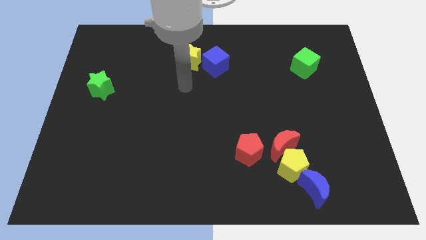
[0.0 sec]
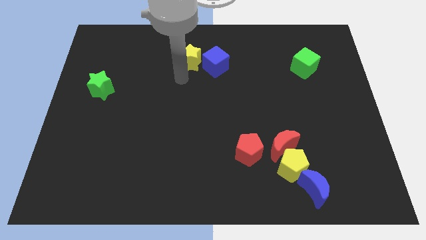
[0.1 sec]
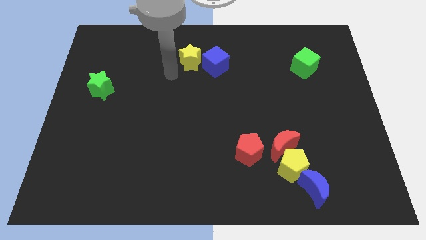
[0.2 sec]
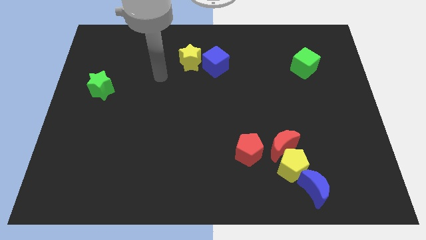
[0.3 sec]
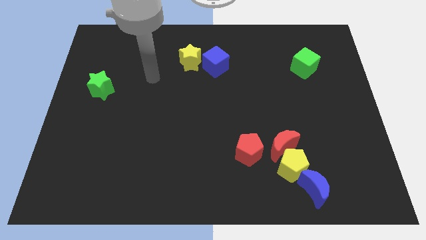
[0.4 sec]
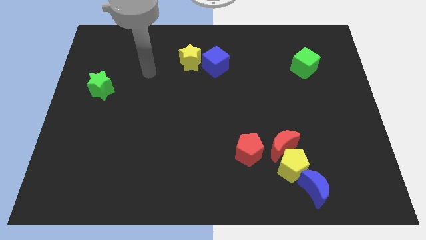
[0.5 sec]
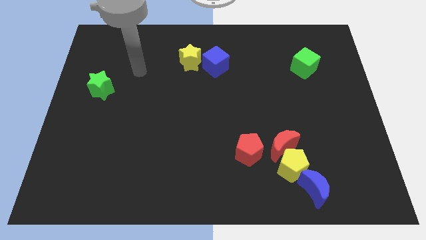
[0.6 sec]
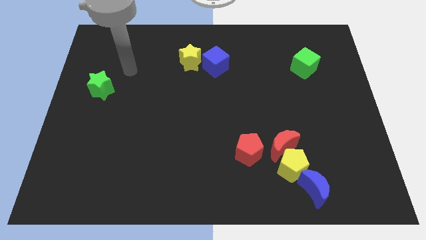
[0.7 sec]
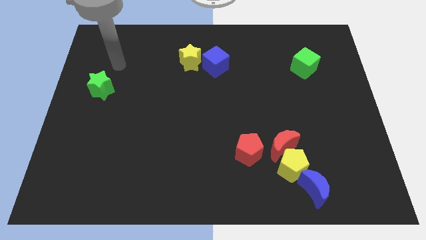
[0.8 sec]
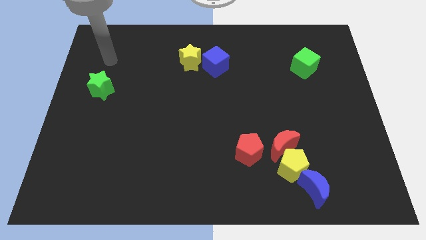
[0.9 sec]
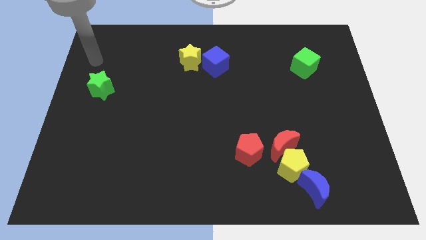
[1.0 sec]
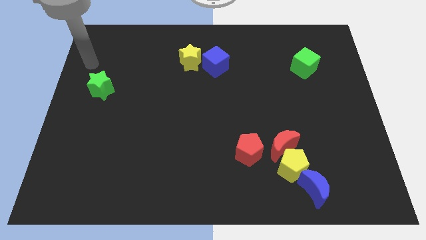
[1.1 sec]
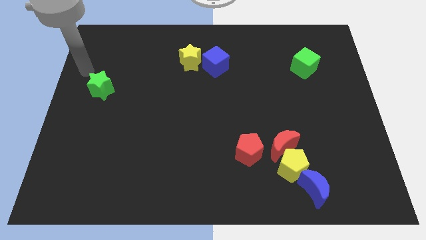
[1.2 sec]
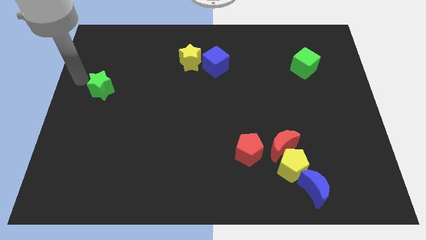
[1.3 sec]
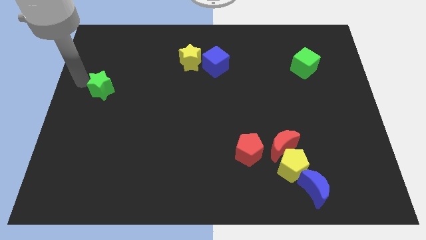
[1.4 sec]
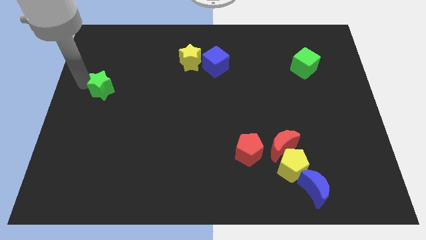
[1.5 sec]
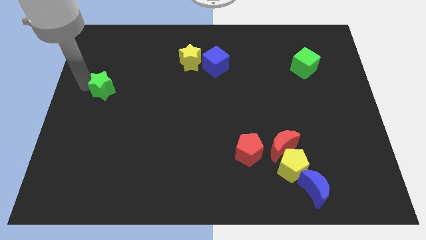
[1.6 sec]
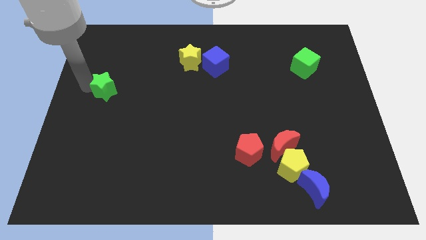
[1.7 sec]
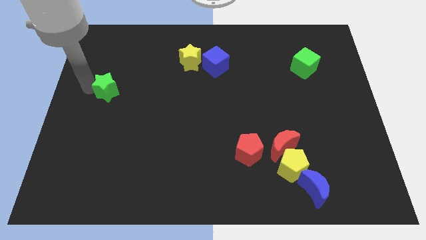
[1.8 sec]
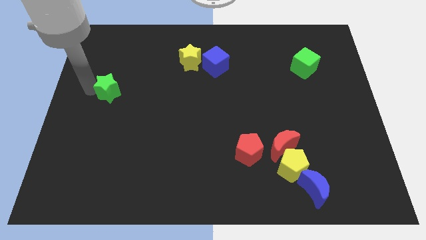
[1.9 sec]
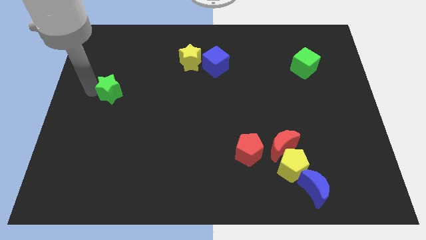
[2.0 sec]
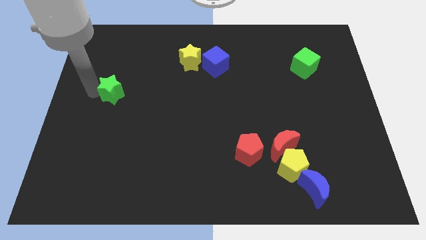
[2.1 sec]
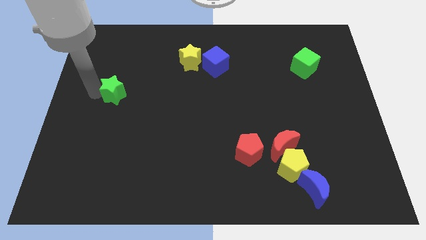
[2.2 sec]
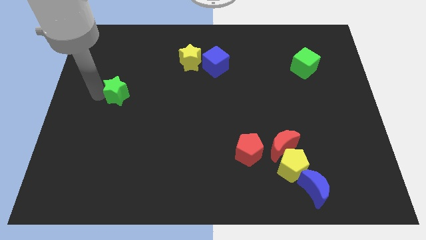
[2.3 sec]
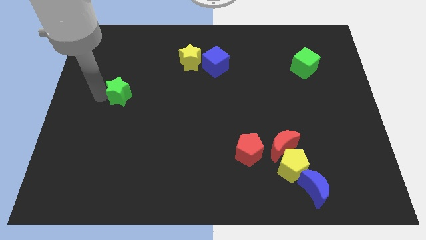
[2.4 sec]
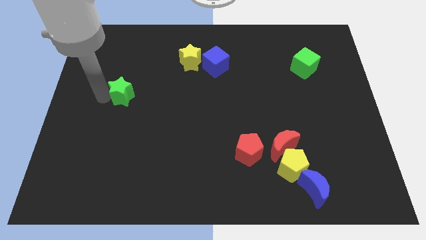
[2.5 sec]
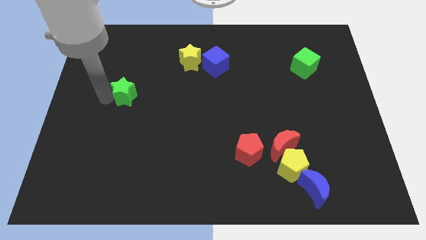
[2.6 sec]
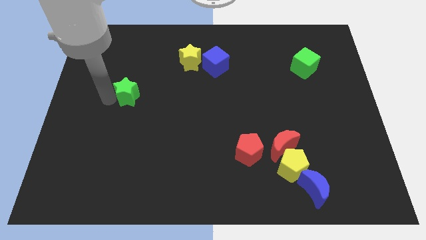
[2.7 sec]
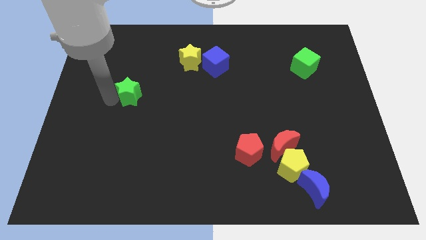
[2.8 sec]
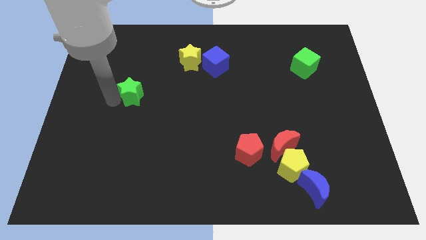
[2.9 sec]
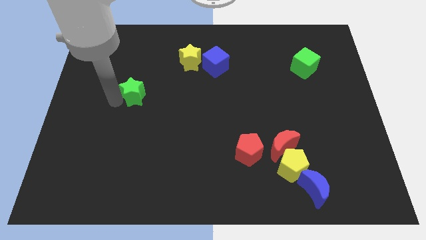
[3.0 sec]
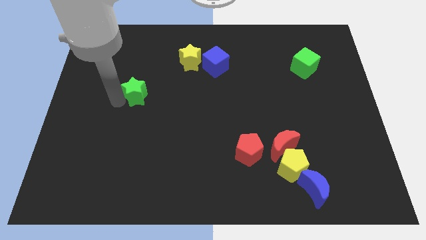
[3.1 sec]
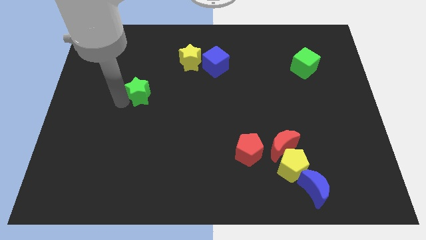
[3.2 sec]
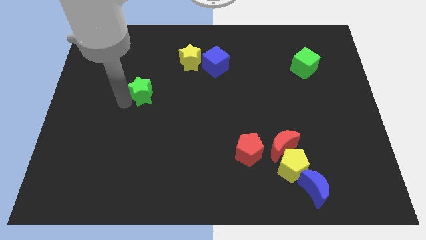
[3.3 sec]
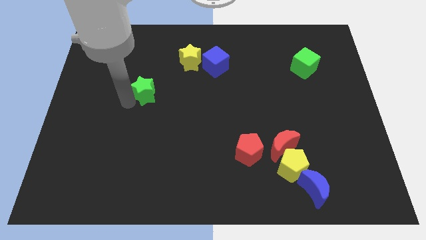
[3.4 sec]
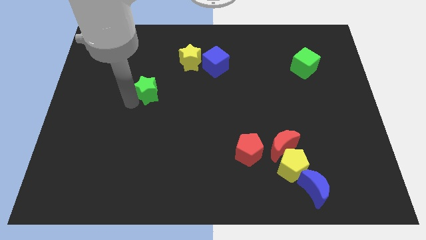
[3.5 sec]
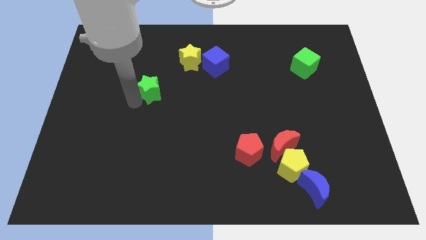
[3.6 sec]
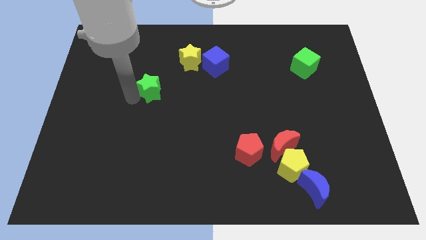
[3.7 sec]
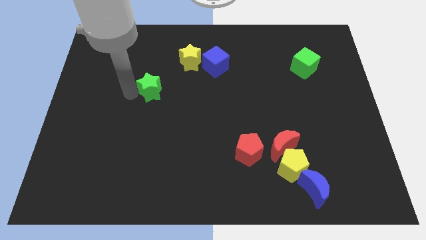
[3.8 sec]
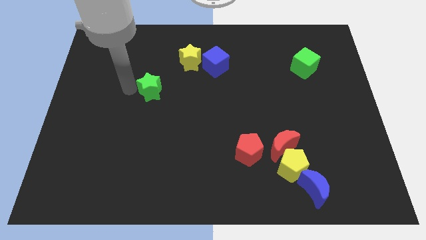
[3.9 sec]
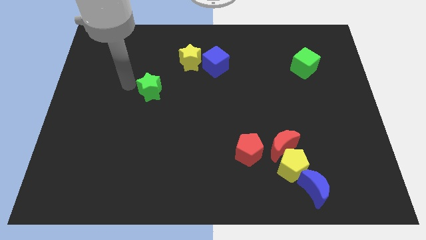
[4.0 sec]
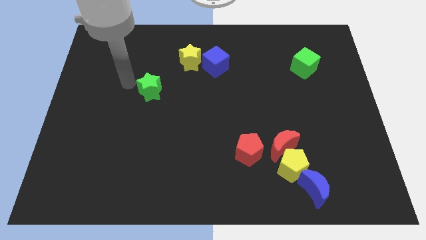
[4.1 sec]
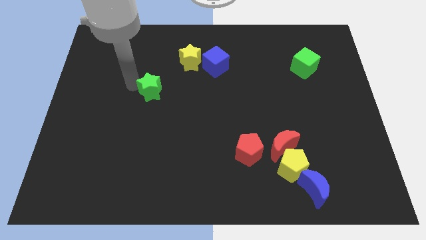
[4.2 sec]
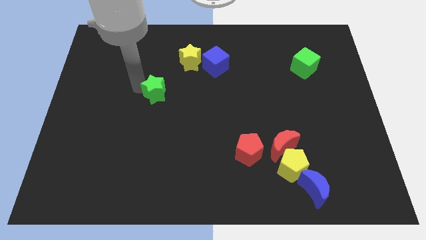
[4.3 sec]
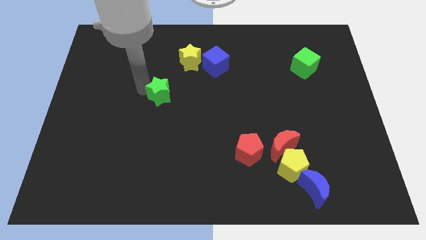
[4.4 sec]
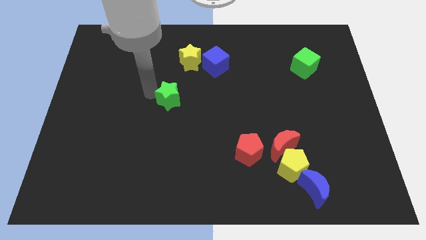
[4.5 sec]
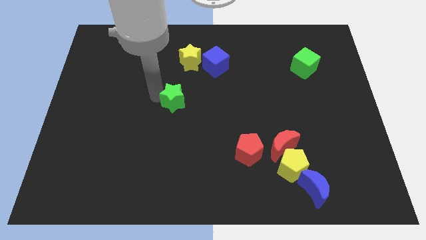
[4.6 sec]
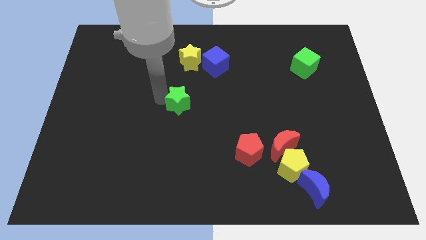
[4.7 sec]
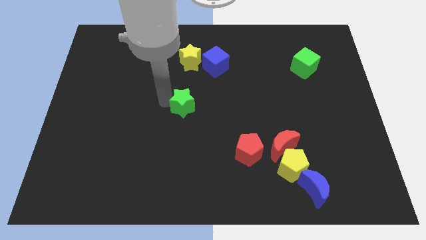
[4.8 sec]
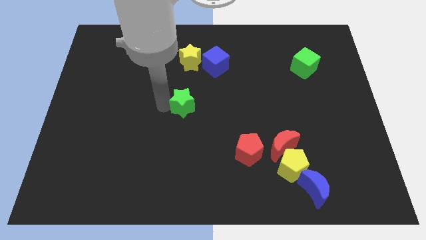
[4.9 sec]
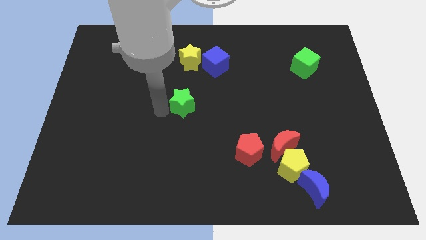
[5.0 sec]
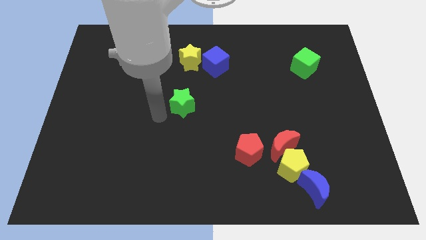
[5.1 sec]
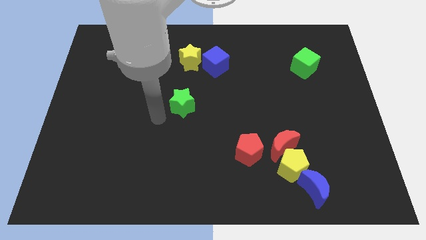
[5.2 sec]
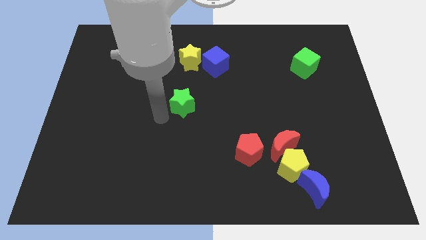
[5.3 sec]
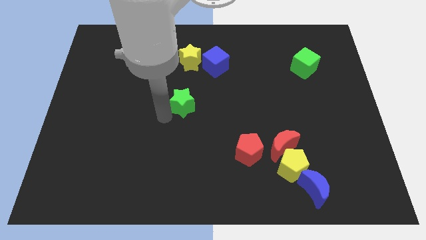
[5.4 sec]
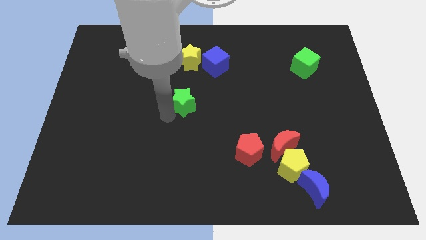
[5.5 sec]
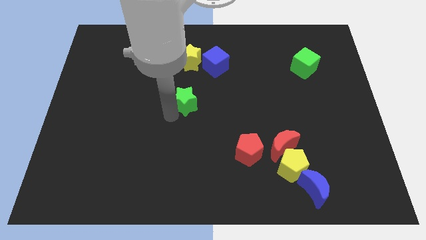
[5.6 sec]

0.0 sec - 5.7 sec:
push the green star to the right

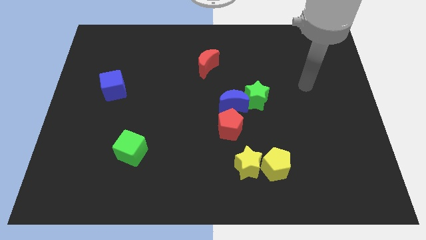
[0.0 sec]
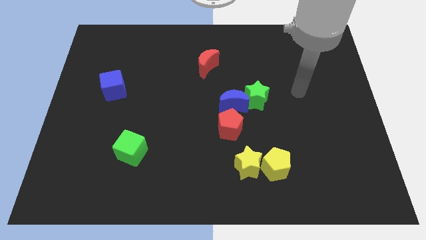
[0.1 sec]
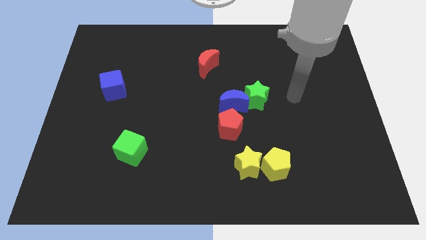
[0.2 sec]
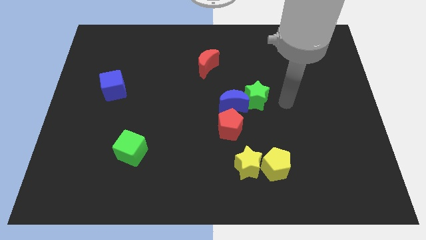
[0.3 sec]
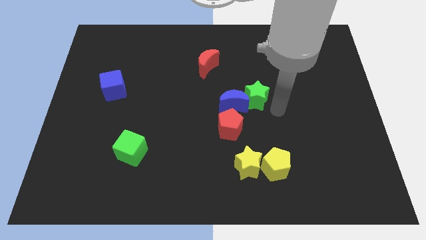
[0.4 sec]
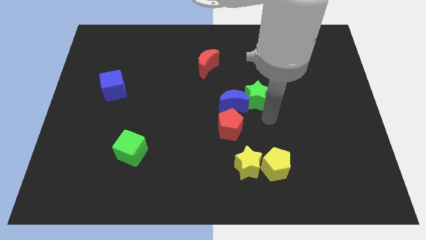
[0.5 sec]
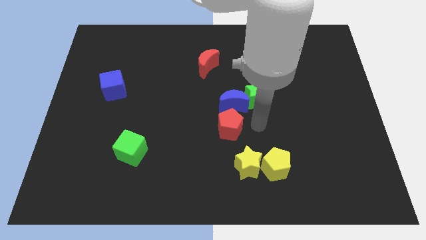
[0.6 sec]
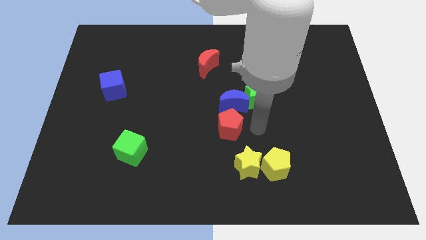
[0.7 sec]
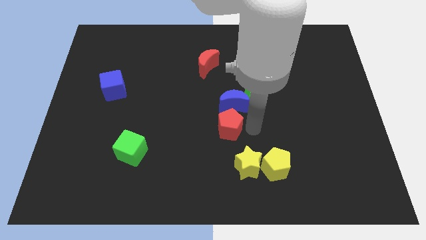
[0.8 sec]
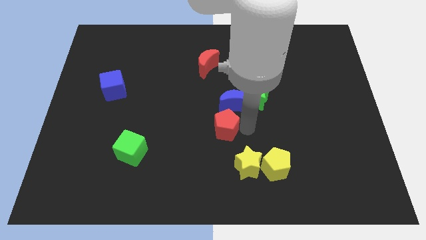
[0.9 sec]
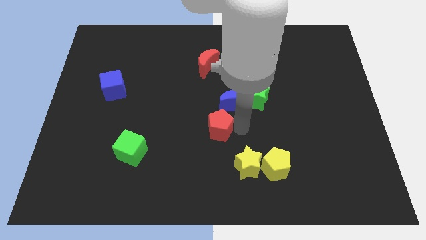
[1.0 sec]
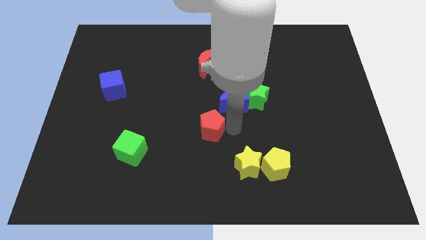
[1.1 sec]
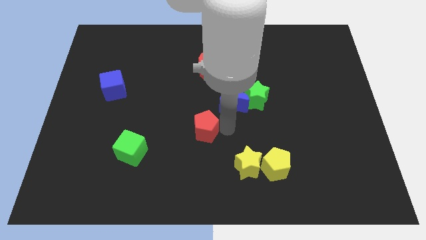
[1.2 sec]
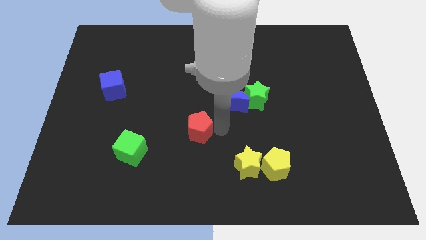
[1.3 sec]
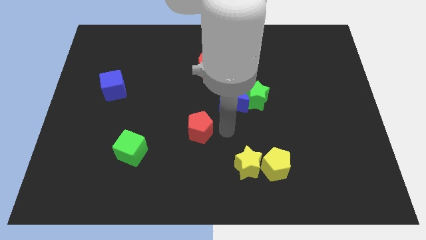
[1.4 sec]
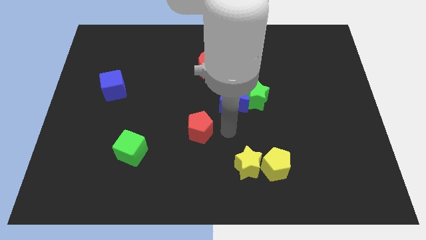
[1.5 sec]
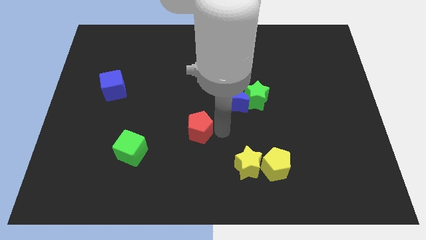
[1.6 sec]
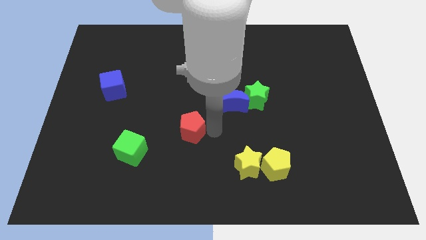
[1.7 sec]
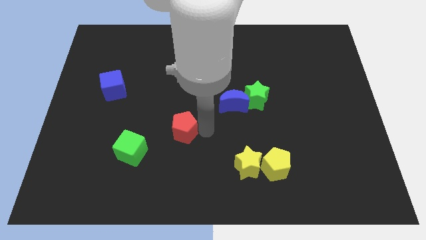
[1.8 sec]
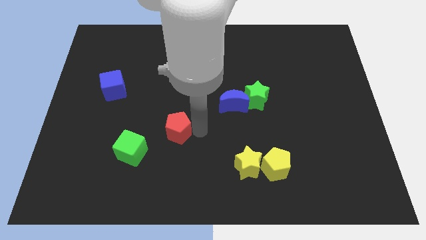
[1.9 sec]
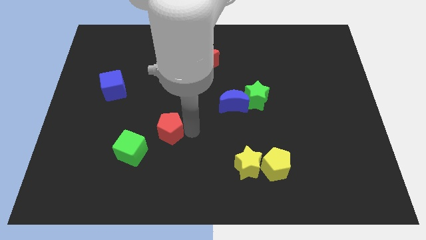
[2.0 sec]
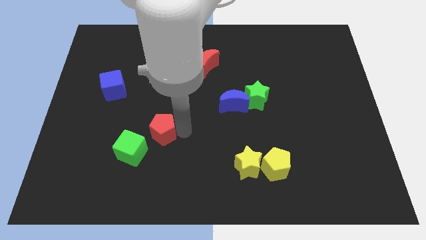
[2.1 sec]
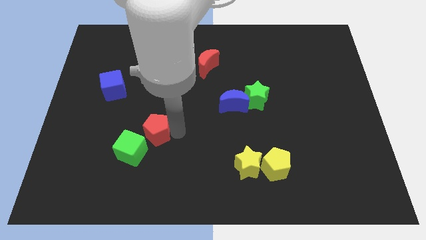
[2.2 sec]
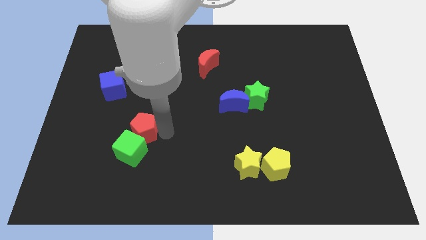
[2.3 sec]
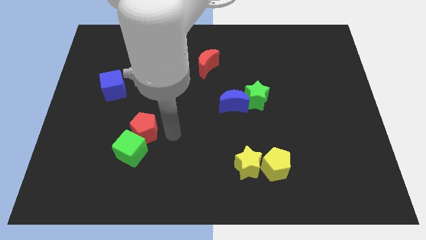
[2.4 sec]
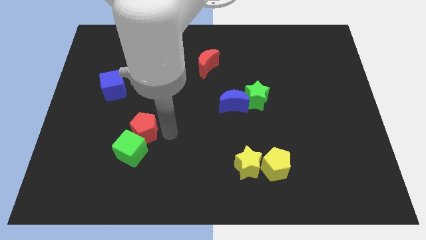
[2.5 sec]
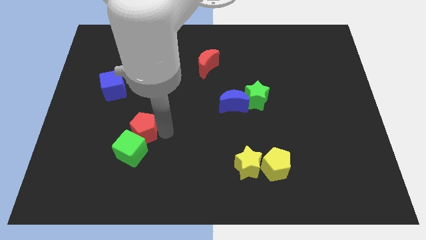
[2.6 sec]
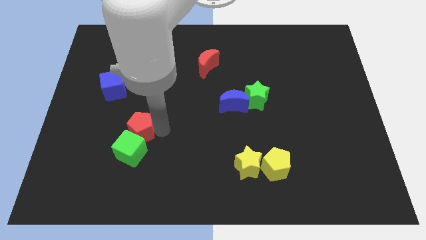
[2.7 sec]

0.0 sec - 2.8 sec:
slide the red pentagon to the left
